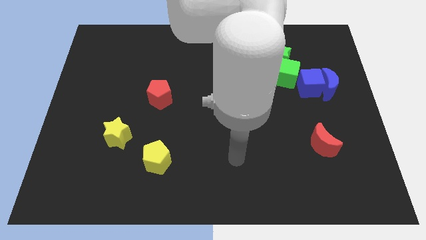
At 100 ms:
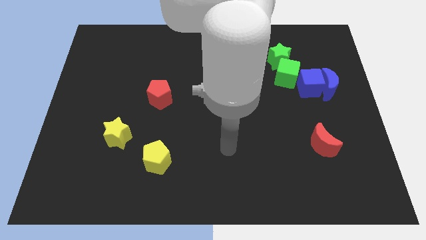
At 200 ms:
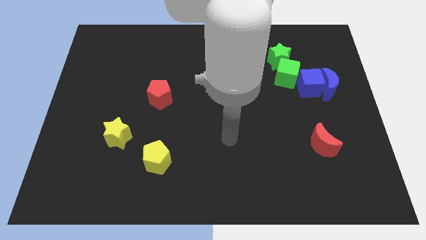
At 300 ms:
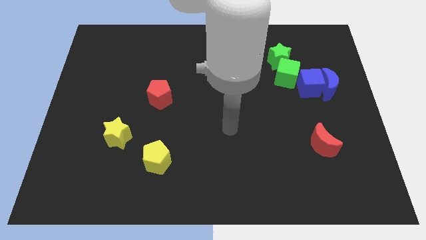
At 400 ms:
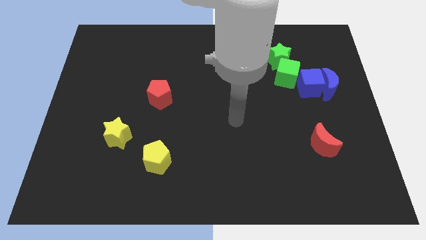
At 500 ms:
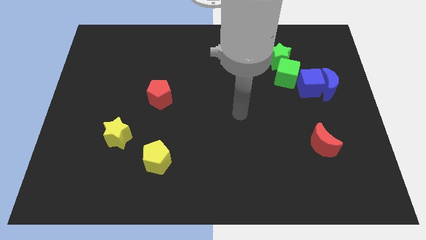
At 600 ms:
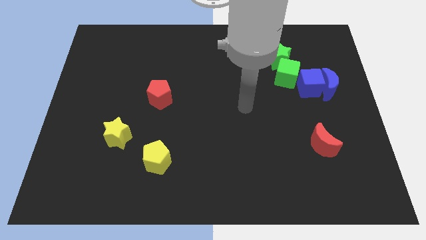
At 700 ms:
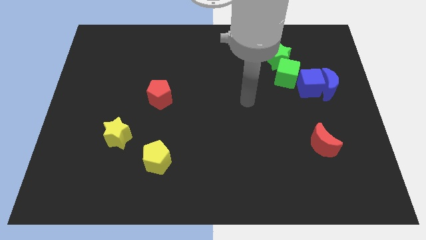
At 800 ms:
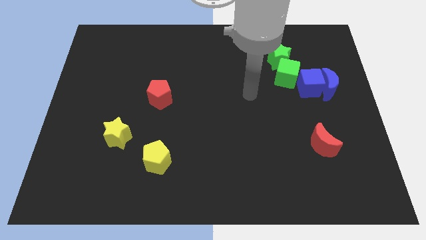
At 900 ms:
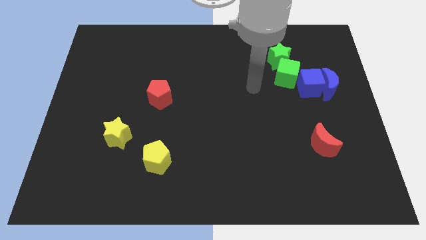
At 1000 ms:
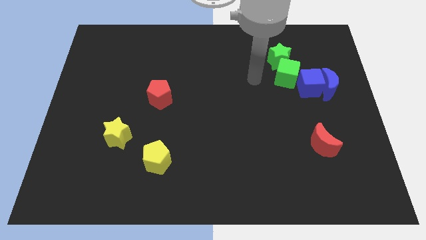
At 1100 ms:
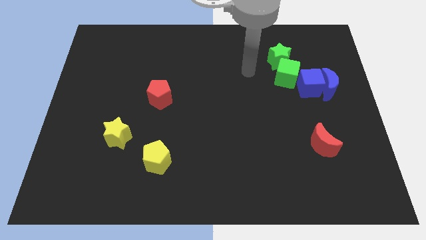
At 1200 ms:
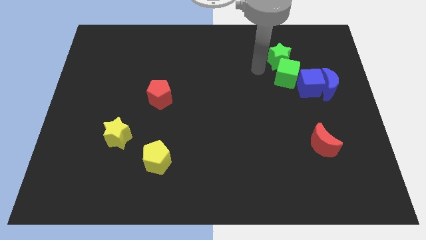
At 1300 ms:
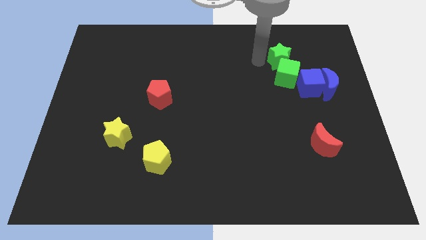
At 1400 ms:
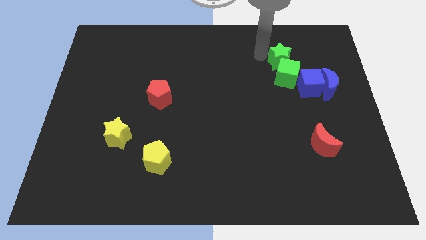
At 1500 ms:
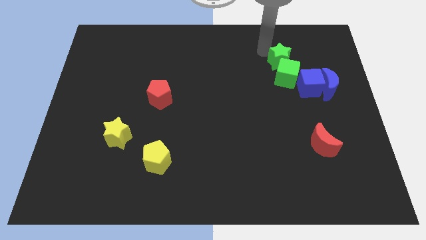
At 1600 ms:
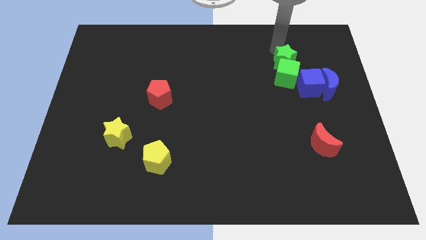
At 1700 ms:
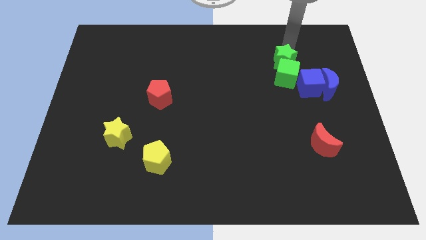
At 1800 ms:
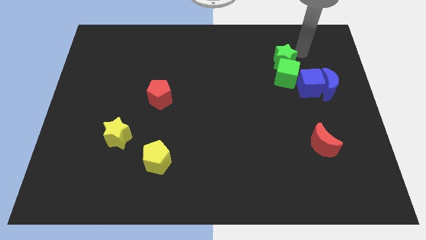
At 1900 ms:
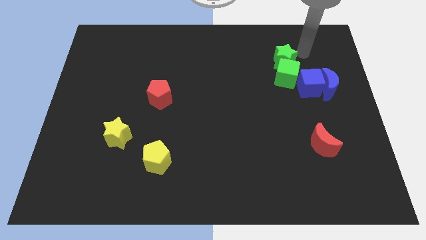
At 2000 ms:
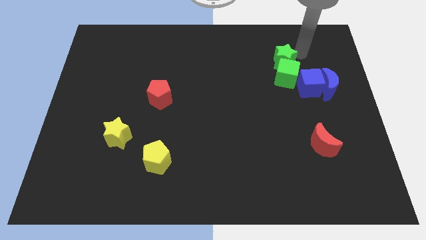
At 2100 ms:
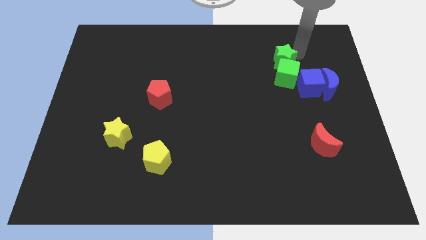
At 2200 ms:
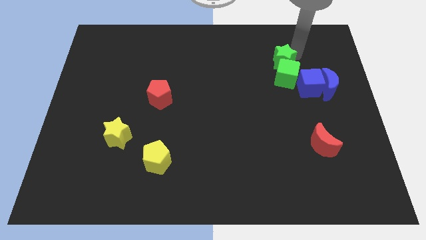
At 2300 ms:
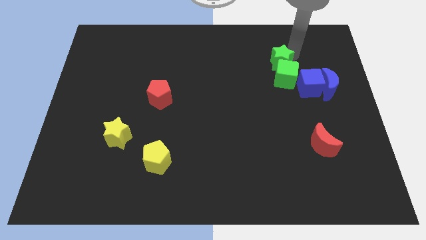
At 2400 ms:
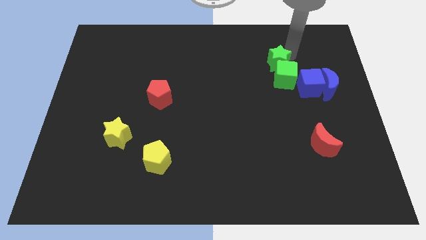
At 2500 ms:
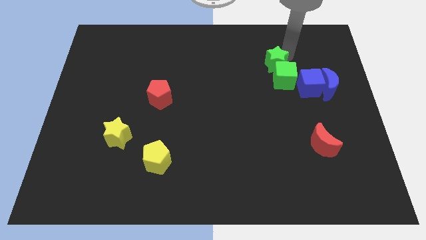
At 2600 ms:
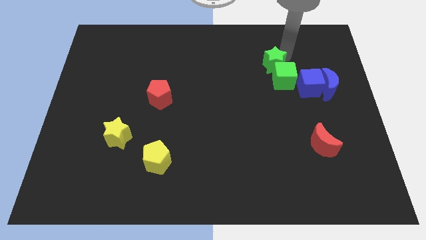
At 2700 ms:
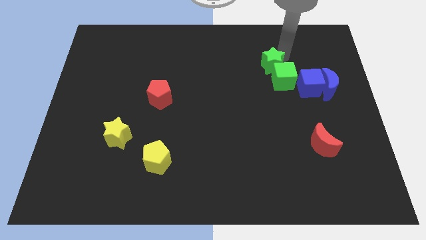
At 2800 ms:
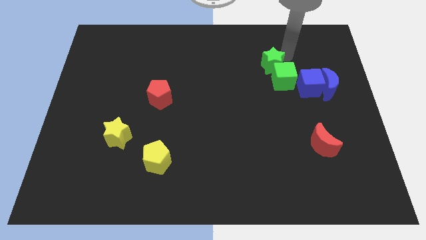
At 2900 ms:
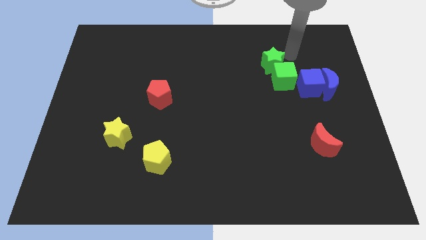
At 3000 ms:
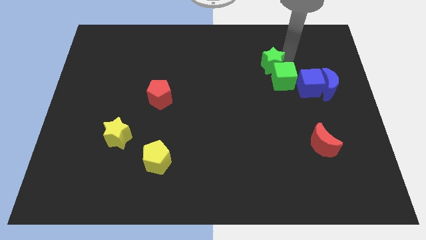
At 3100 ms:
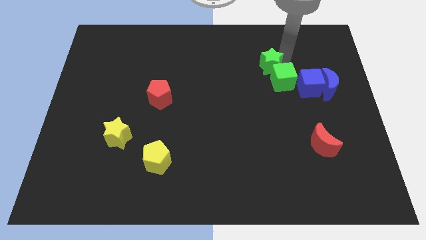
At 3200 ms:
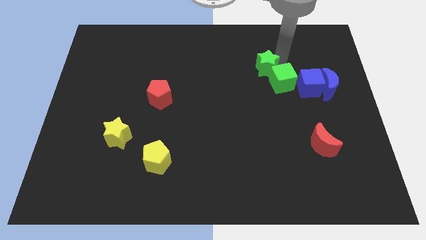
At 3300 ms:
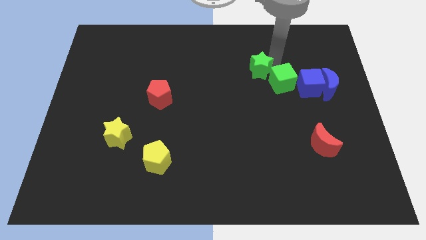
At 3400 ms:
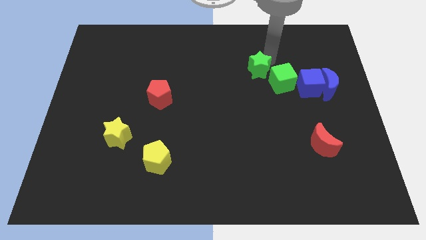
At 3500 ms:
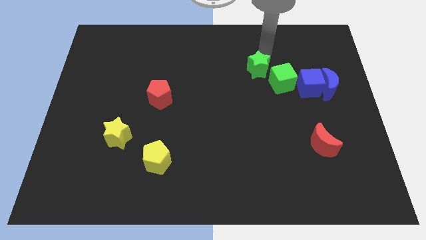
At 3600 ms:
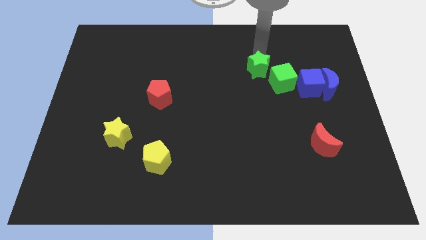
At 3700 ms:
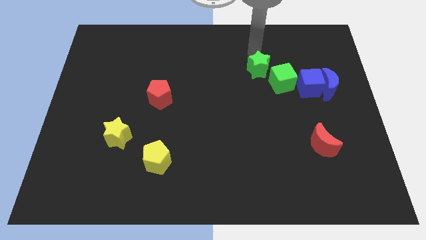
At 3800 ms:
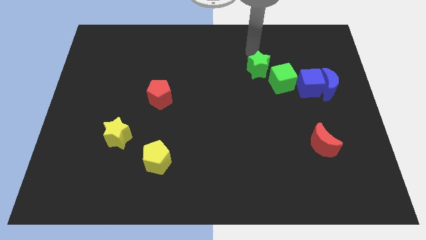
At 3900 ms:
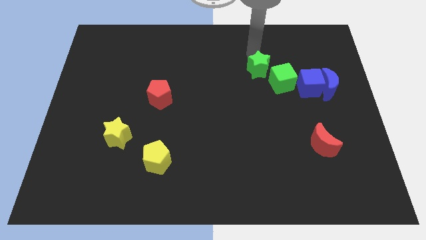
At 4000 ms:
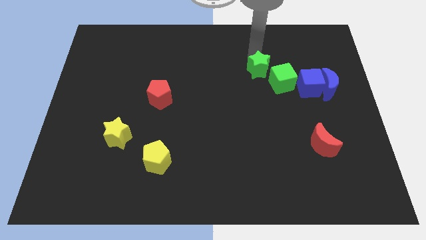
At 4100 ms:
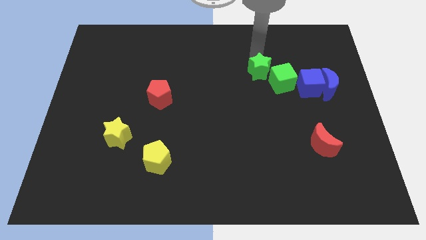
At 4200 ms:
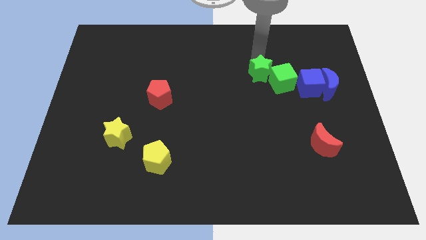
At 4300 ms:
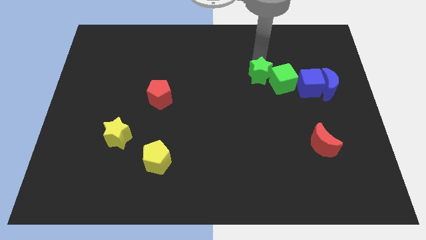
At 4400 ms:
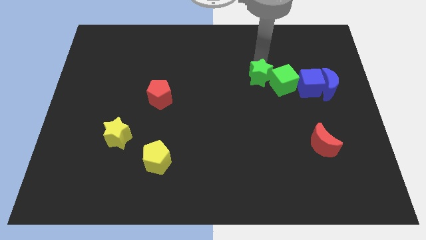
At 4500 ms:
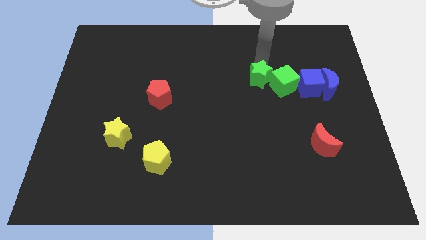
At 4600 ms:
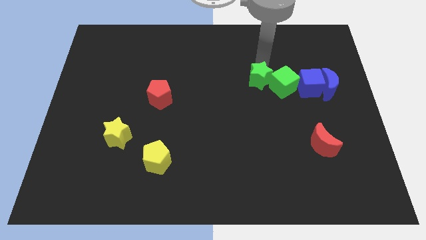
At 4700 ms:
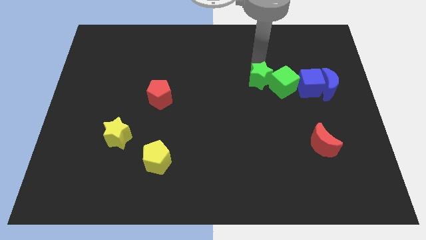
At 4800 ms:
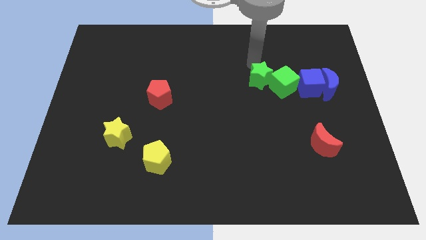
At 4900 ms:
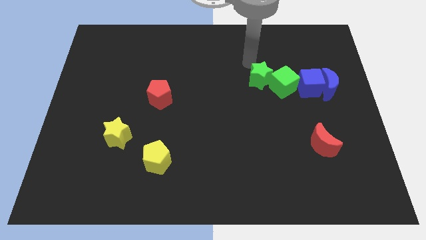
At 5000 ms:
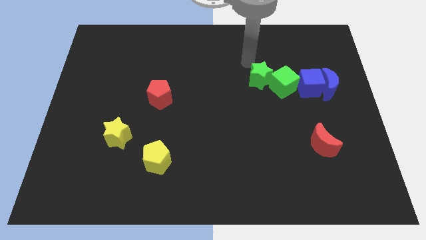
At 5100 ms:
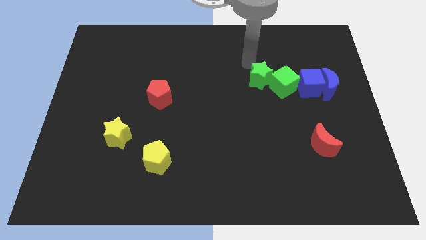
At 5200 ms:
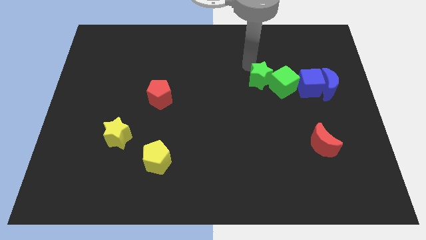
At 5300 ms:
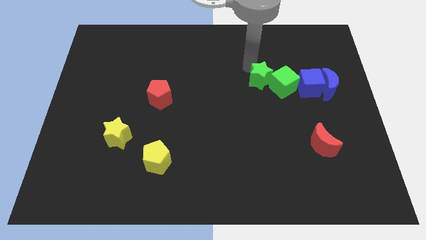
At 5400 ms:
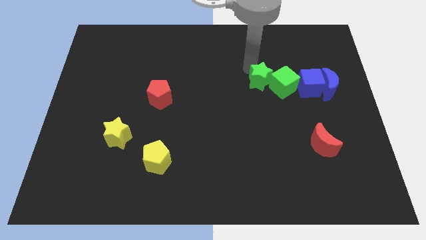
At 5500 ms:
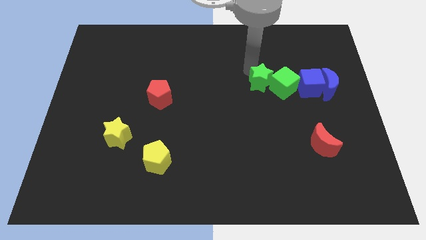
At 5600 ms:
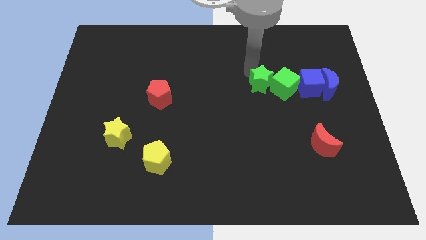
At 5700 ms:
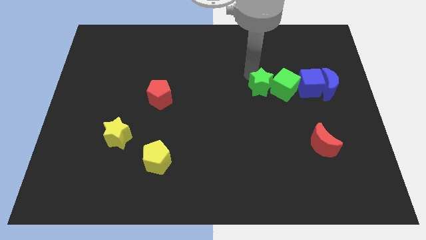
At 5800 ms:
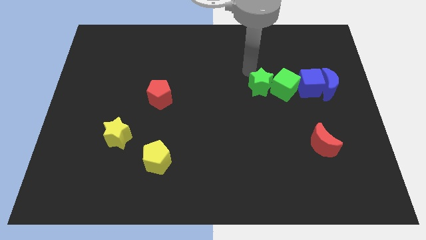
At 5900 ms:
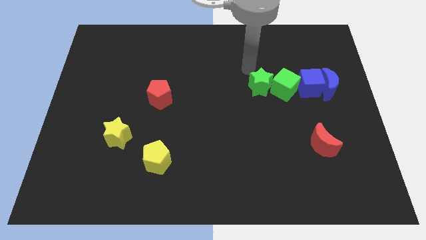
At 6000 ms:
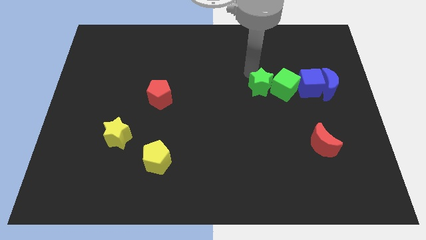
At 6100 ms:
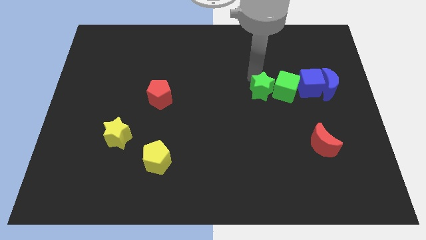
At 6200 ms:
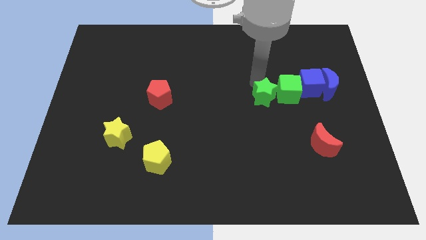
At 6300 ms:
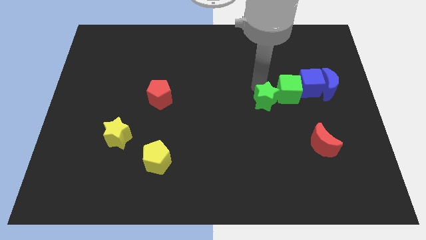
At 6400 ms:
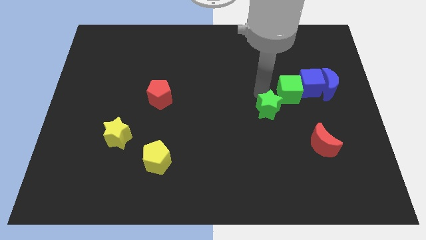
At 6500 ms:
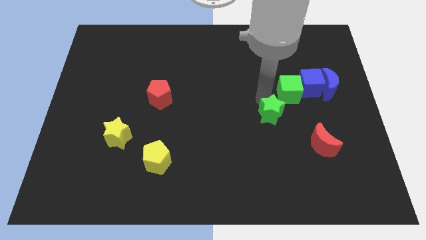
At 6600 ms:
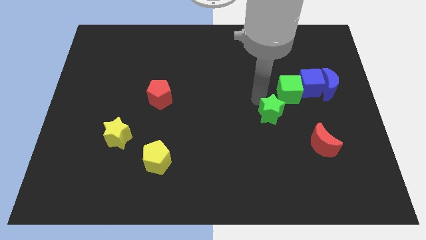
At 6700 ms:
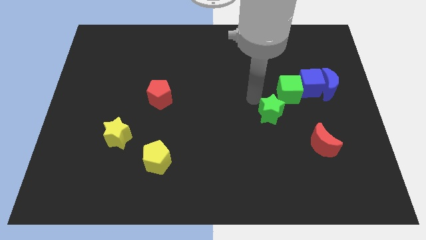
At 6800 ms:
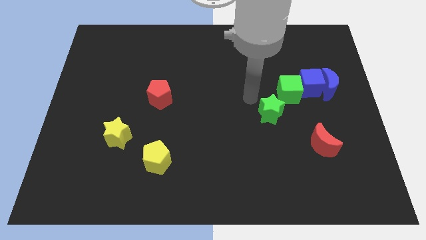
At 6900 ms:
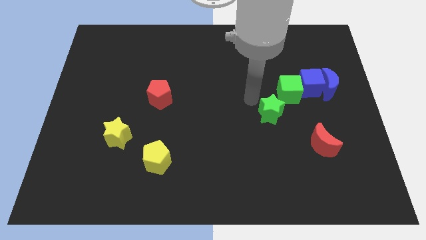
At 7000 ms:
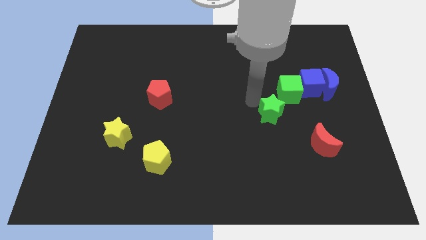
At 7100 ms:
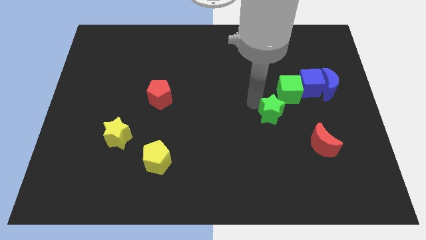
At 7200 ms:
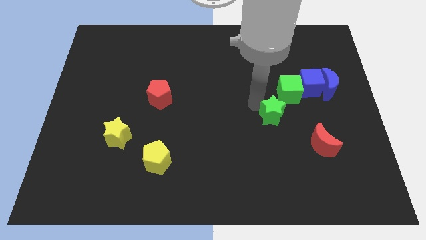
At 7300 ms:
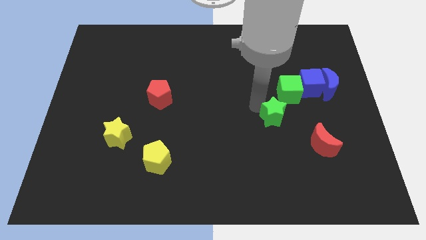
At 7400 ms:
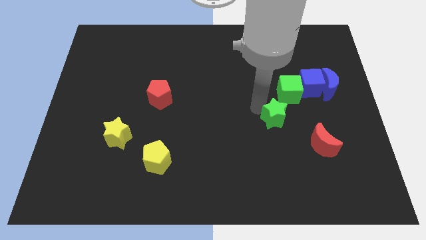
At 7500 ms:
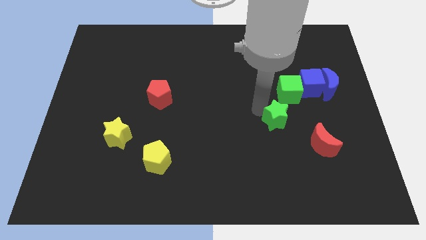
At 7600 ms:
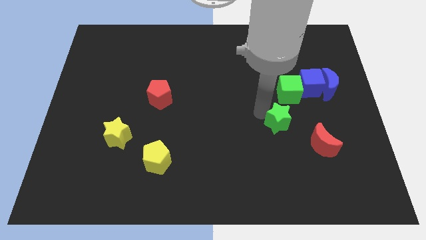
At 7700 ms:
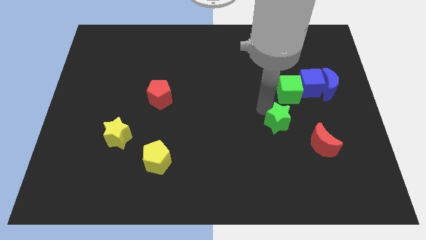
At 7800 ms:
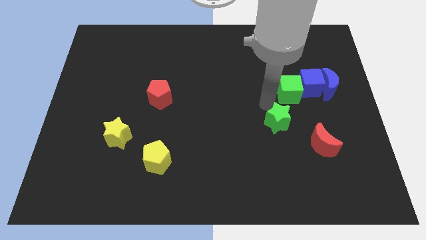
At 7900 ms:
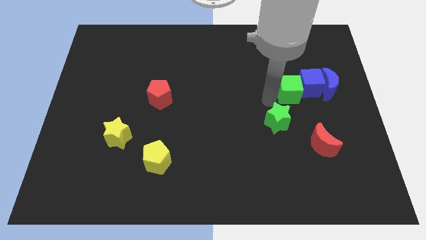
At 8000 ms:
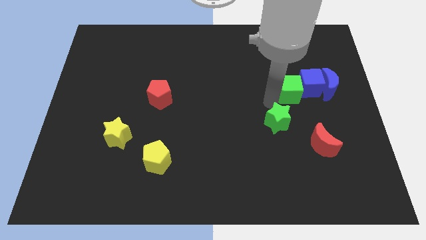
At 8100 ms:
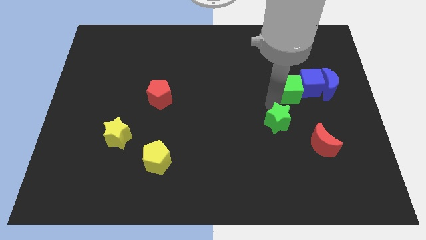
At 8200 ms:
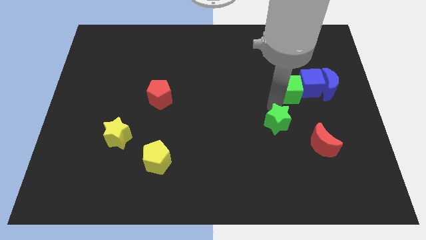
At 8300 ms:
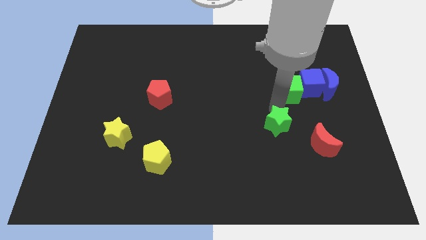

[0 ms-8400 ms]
move the green star downwards
